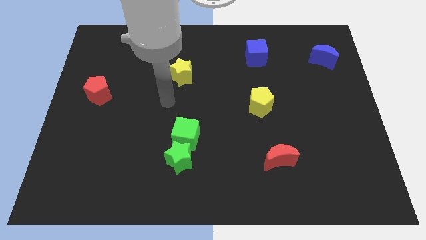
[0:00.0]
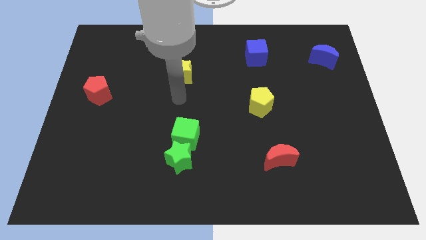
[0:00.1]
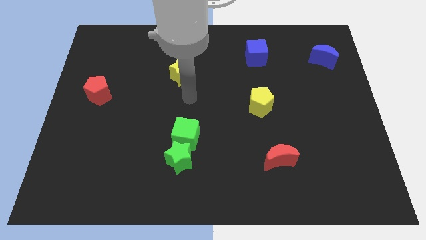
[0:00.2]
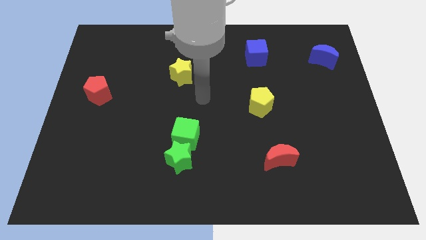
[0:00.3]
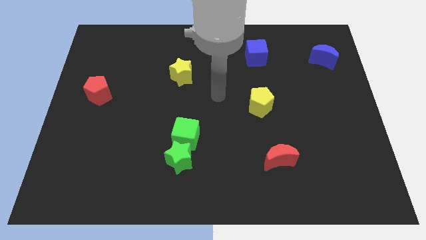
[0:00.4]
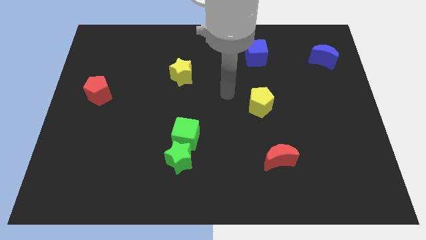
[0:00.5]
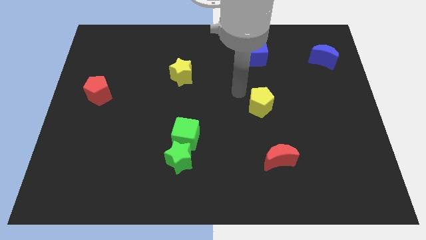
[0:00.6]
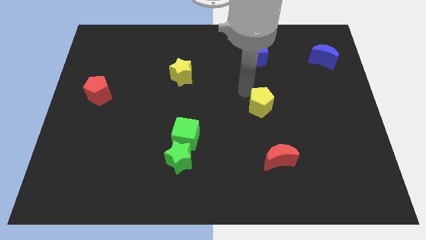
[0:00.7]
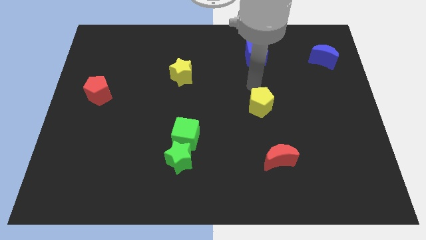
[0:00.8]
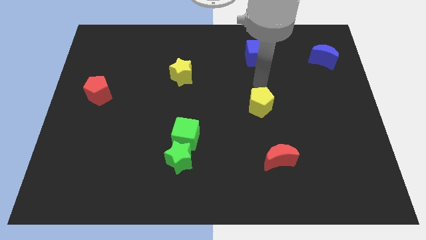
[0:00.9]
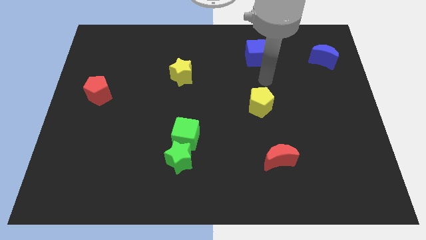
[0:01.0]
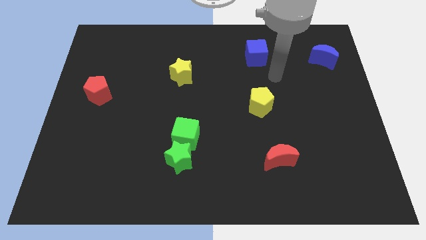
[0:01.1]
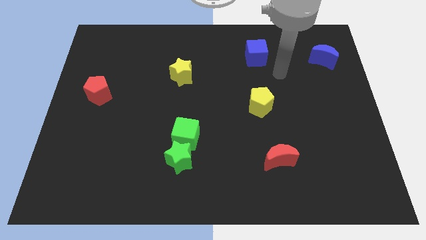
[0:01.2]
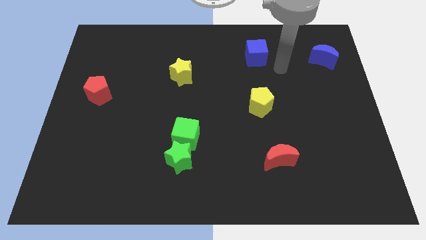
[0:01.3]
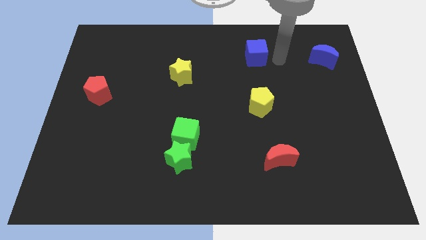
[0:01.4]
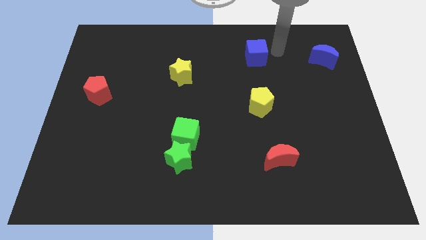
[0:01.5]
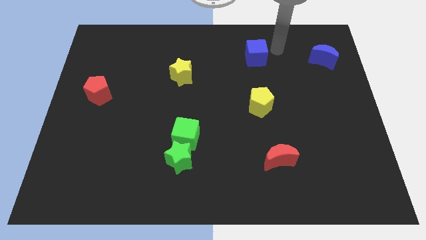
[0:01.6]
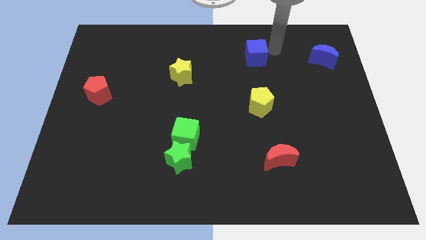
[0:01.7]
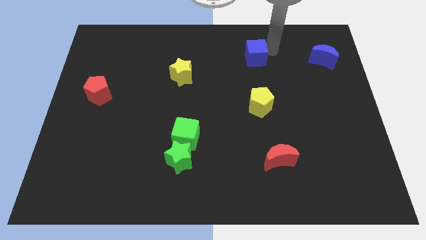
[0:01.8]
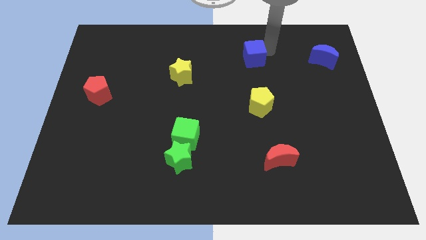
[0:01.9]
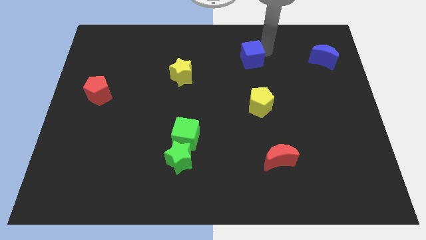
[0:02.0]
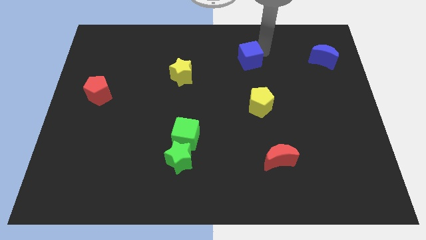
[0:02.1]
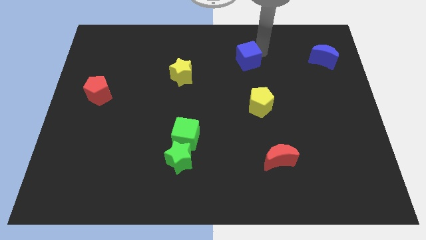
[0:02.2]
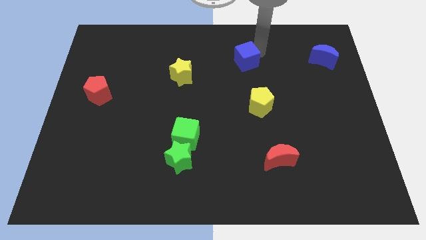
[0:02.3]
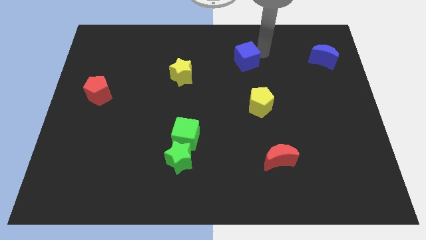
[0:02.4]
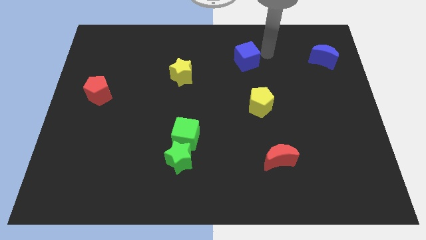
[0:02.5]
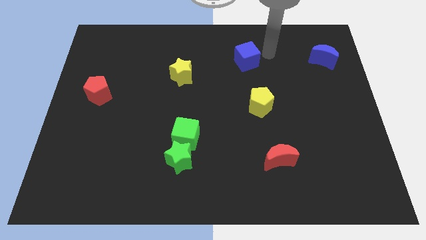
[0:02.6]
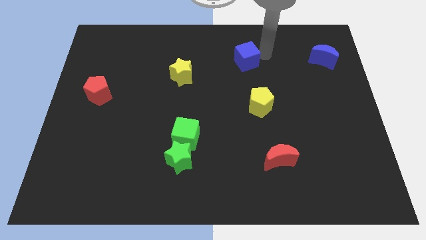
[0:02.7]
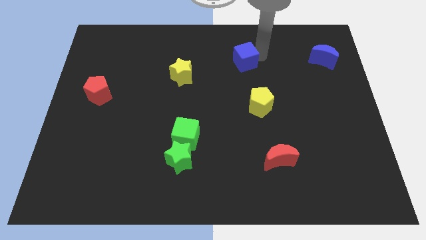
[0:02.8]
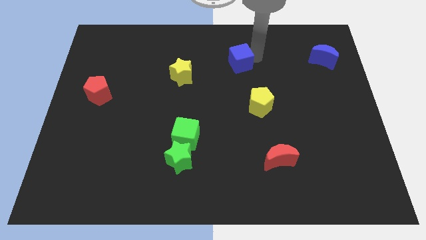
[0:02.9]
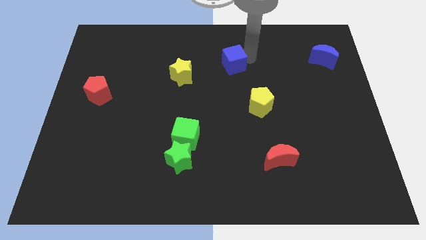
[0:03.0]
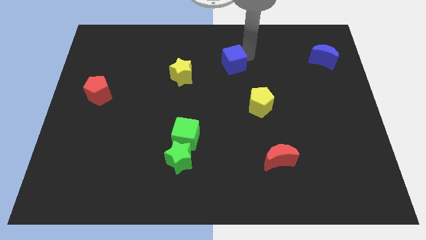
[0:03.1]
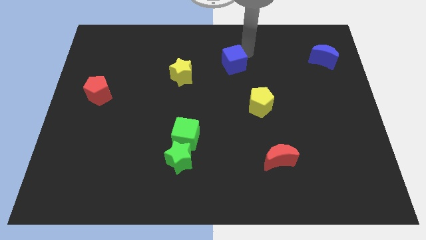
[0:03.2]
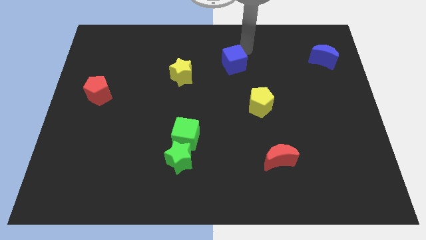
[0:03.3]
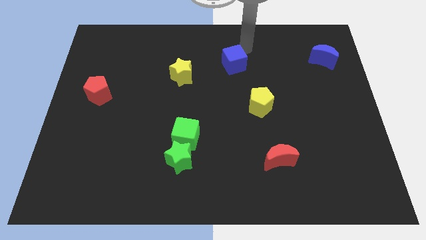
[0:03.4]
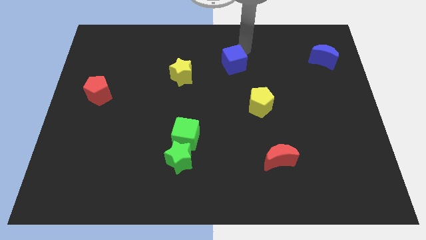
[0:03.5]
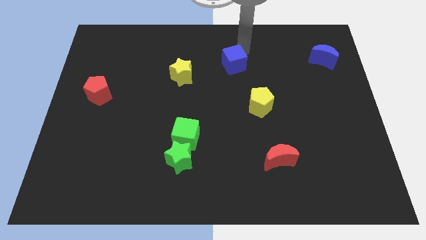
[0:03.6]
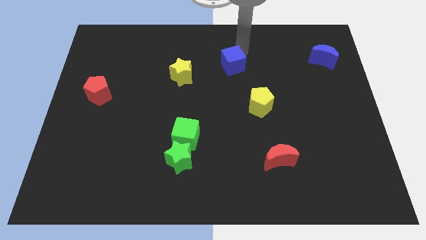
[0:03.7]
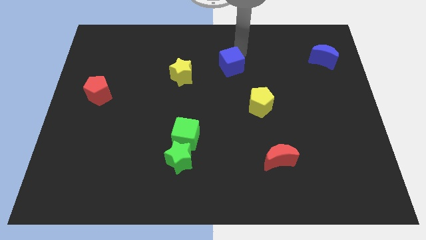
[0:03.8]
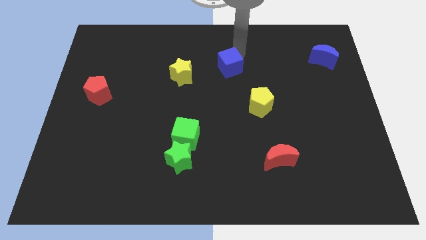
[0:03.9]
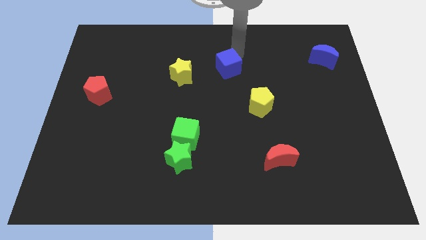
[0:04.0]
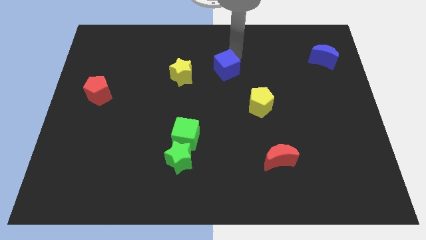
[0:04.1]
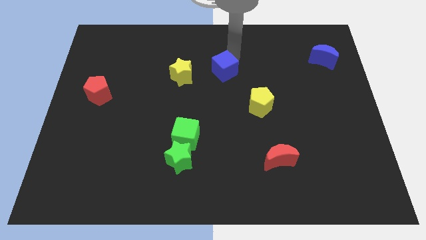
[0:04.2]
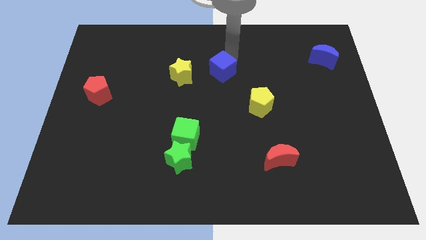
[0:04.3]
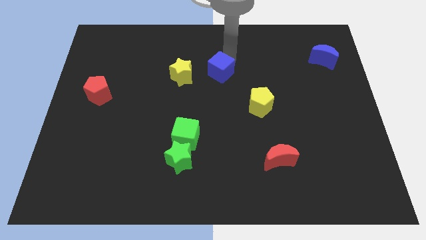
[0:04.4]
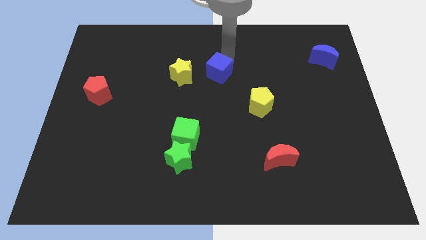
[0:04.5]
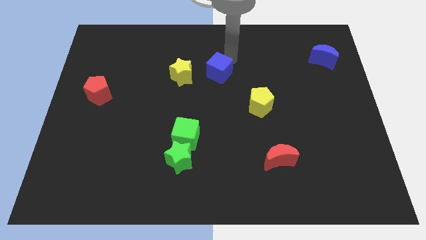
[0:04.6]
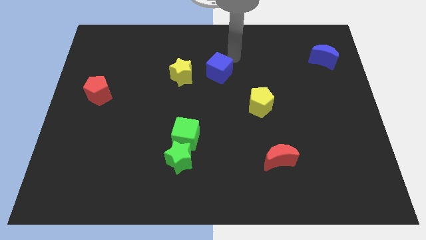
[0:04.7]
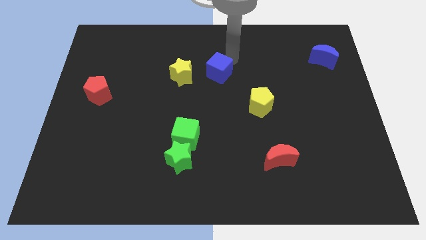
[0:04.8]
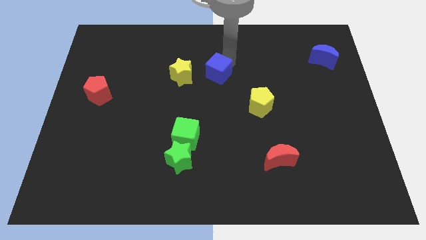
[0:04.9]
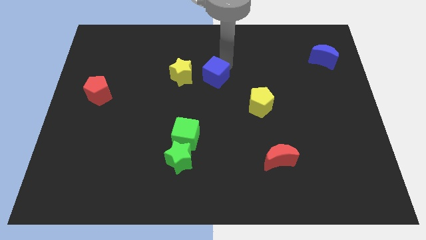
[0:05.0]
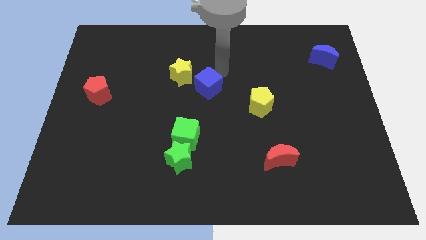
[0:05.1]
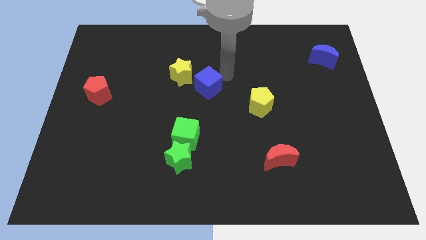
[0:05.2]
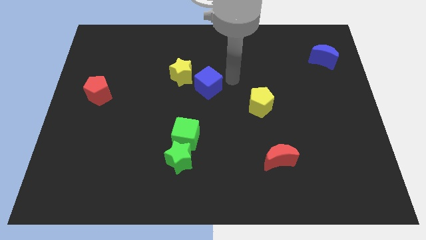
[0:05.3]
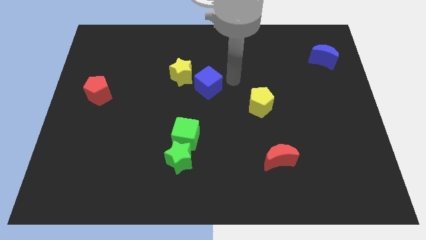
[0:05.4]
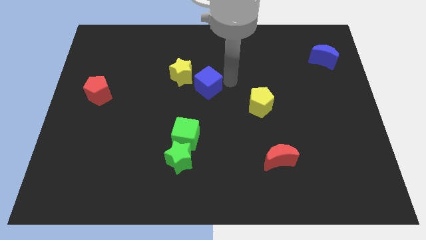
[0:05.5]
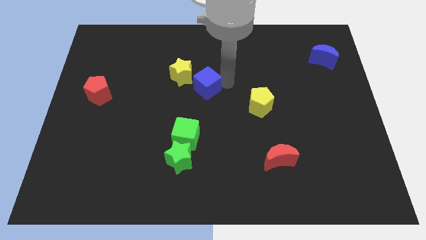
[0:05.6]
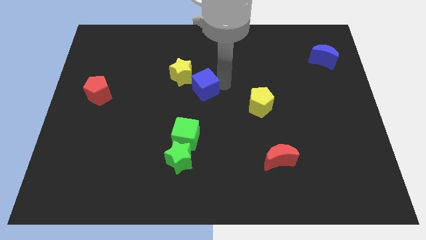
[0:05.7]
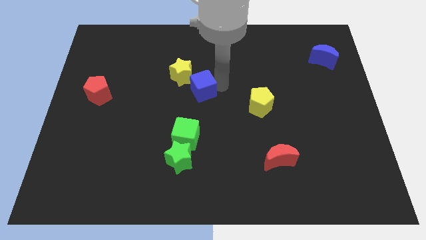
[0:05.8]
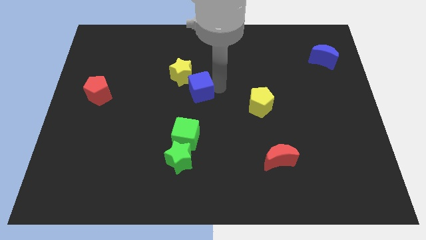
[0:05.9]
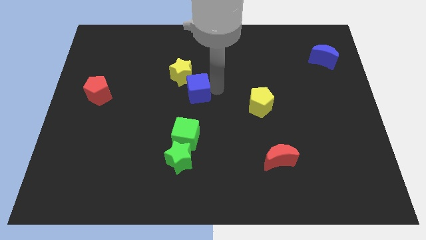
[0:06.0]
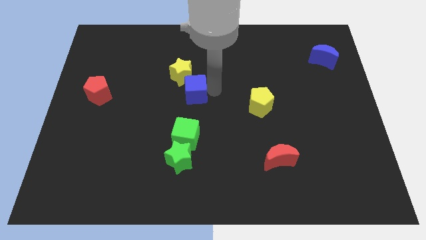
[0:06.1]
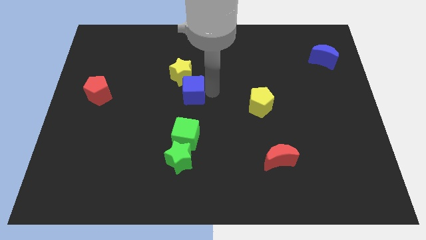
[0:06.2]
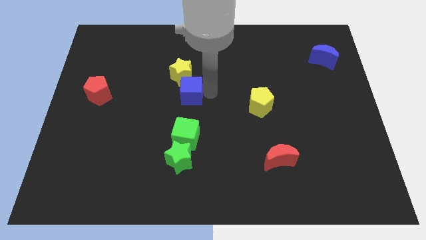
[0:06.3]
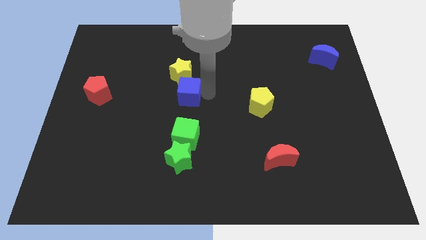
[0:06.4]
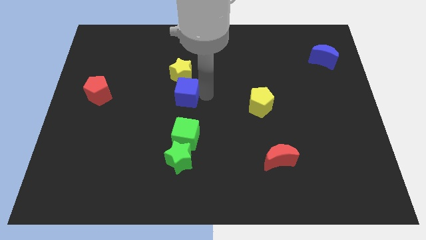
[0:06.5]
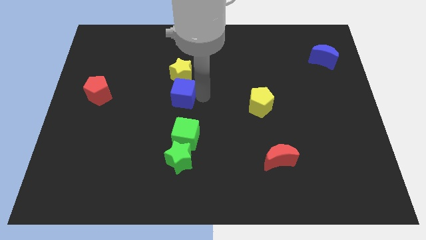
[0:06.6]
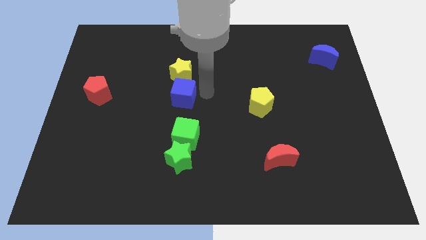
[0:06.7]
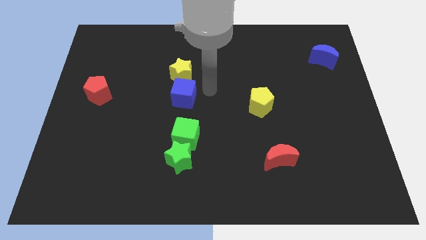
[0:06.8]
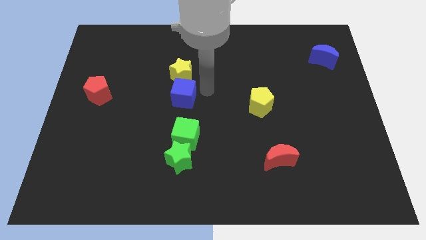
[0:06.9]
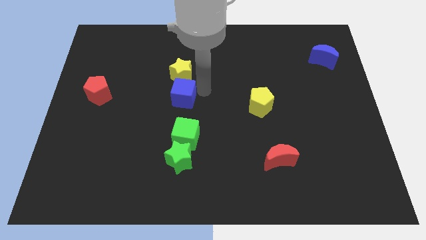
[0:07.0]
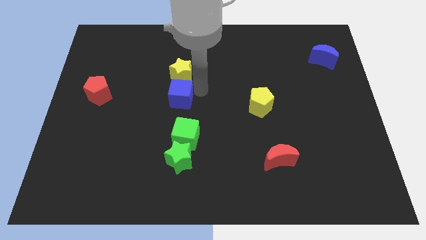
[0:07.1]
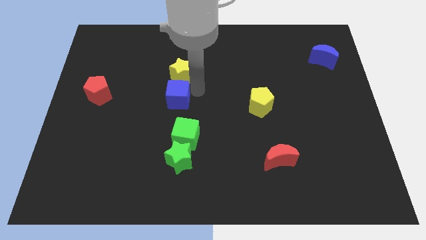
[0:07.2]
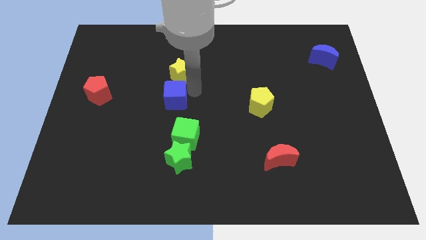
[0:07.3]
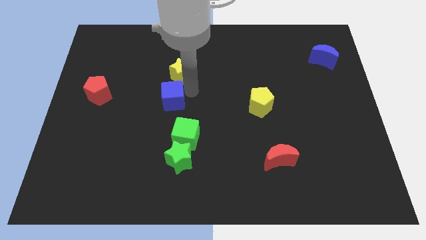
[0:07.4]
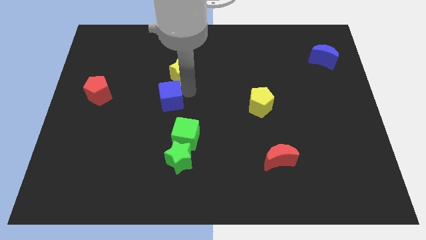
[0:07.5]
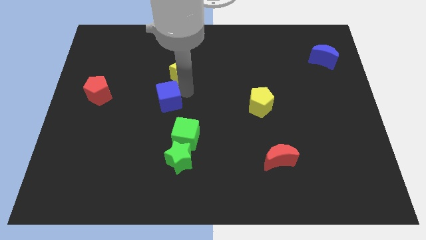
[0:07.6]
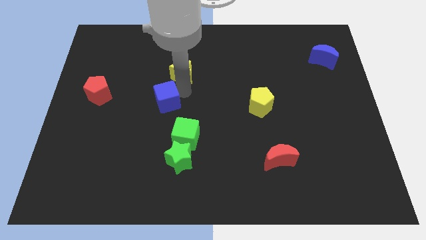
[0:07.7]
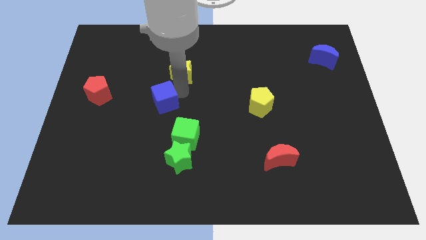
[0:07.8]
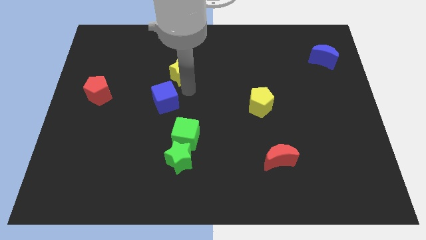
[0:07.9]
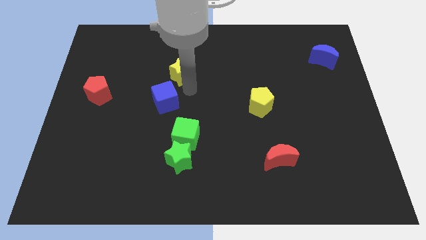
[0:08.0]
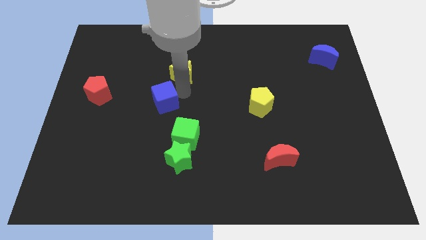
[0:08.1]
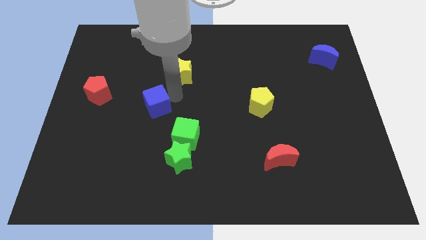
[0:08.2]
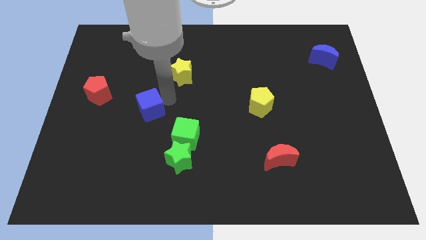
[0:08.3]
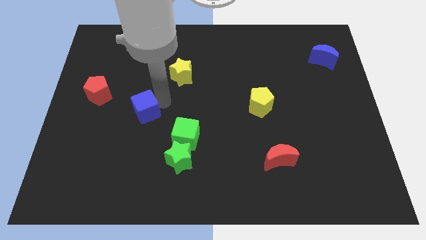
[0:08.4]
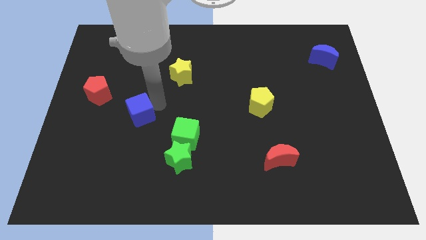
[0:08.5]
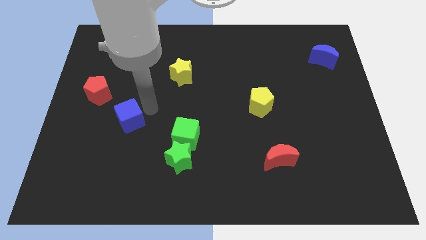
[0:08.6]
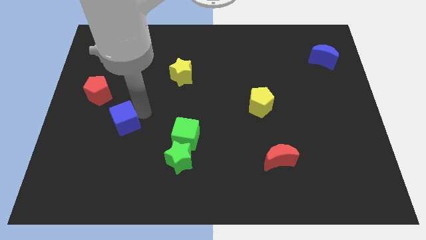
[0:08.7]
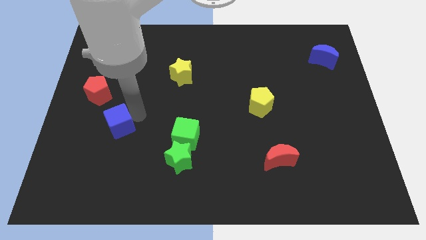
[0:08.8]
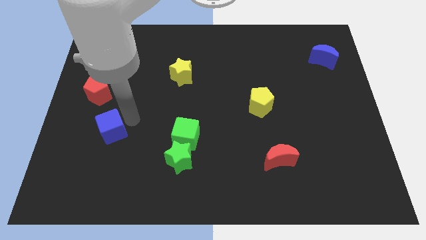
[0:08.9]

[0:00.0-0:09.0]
move the blue cube below the red pentagon
